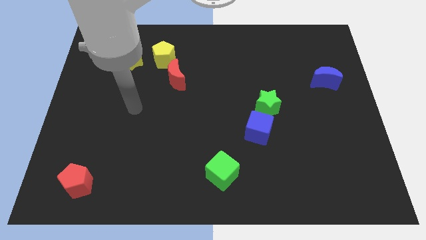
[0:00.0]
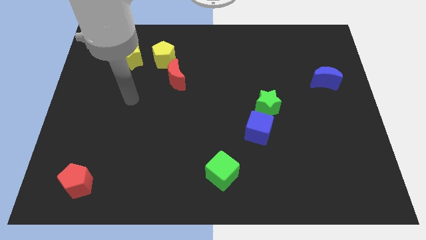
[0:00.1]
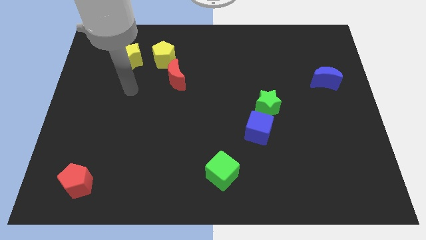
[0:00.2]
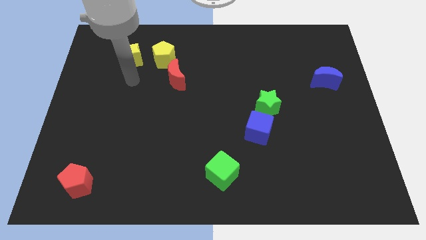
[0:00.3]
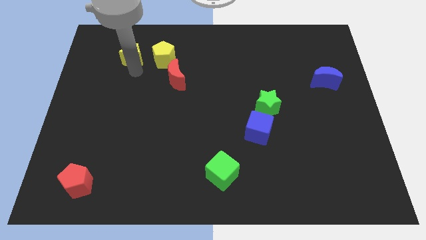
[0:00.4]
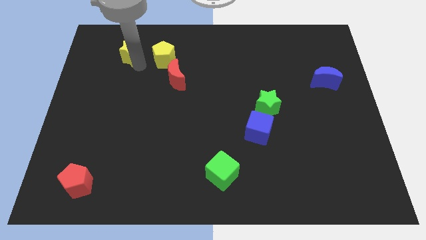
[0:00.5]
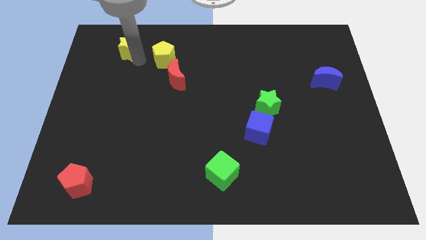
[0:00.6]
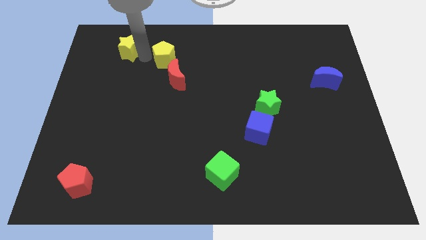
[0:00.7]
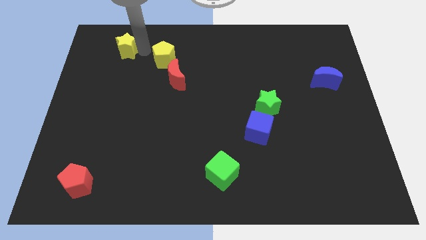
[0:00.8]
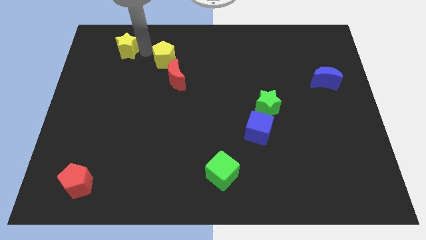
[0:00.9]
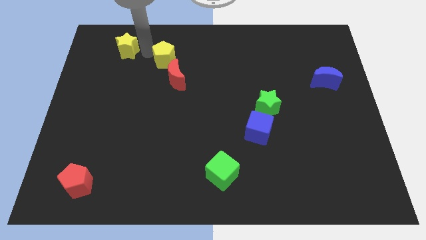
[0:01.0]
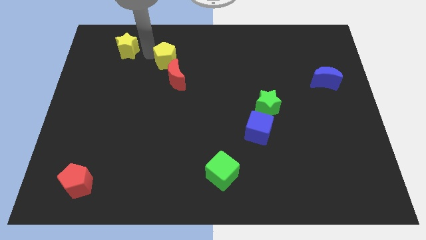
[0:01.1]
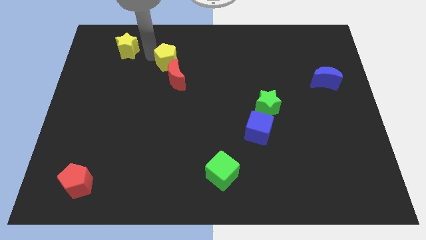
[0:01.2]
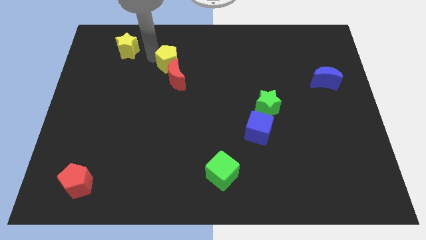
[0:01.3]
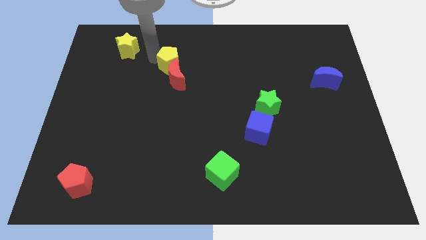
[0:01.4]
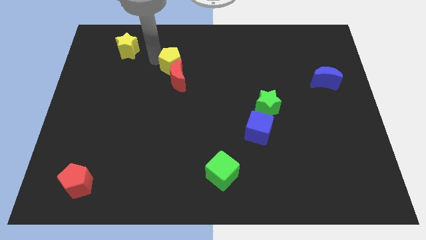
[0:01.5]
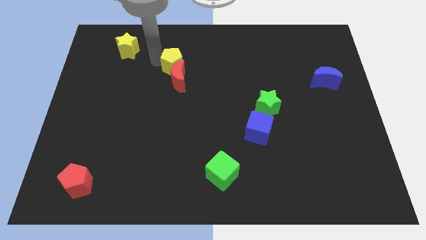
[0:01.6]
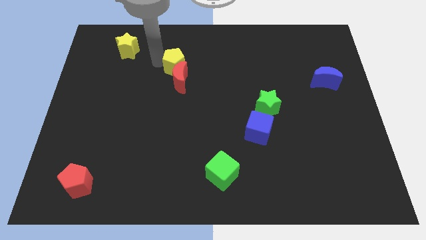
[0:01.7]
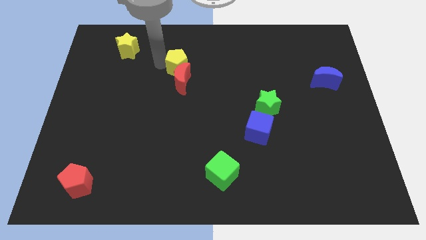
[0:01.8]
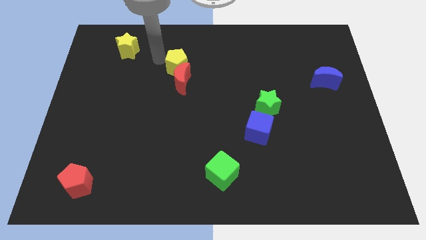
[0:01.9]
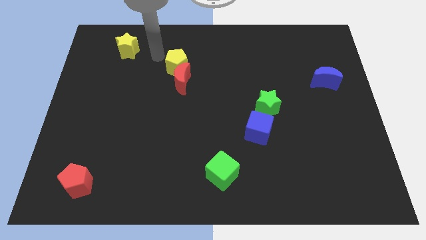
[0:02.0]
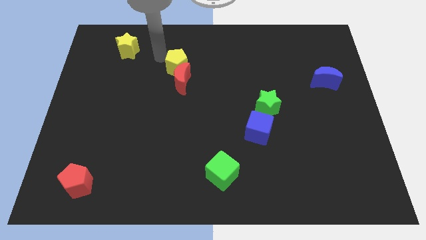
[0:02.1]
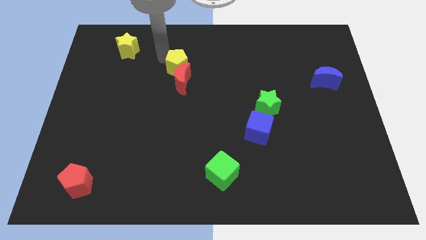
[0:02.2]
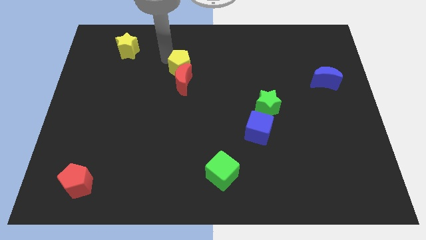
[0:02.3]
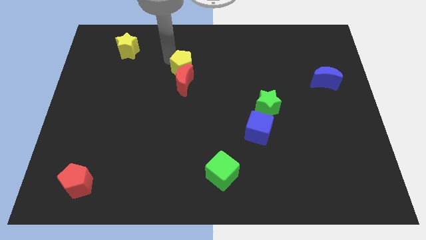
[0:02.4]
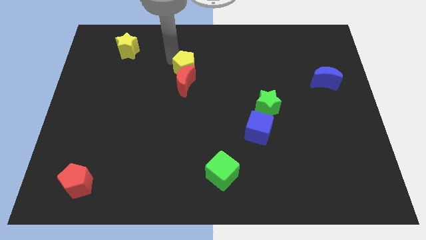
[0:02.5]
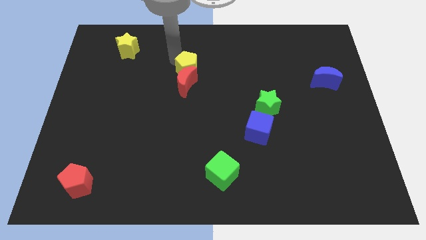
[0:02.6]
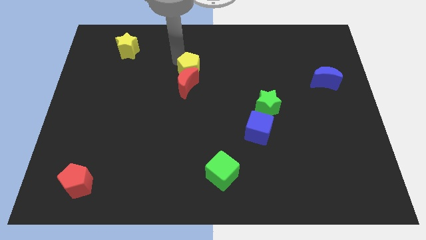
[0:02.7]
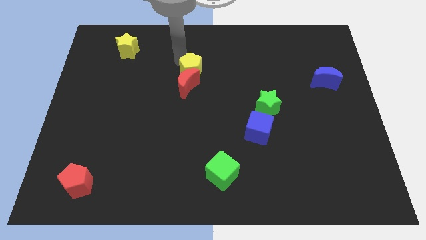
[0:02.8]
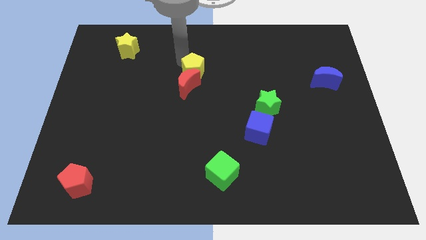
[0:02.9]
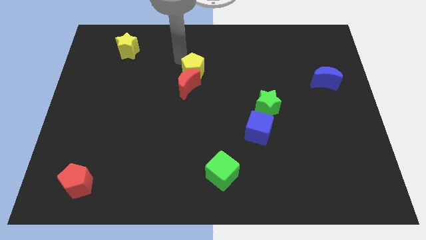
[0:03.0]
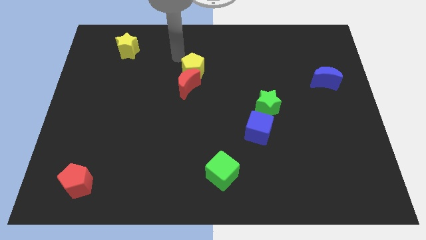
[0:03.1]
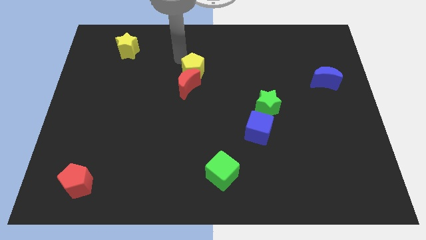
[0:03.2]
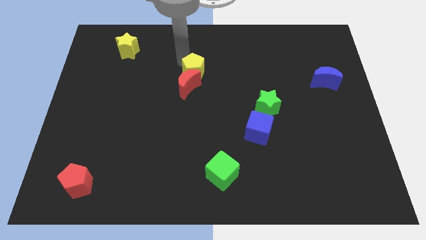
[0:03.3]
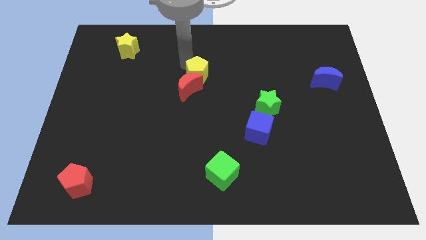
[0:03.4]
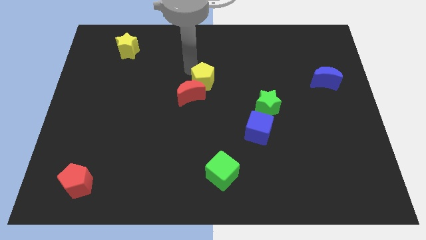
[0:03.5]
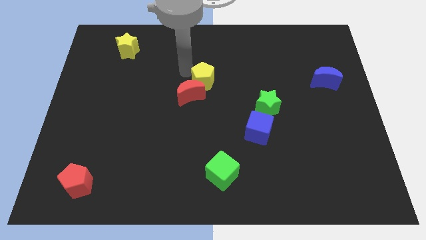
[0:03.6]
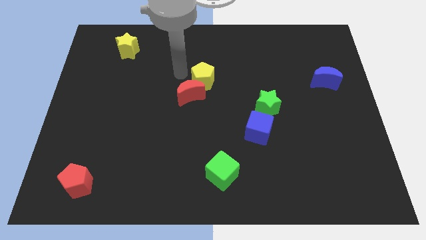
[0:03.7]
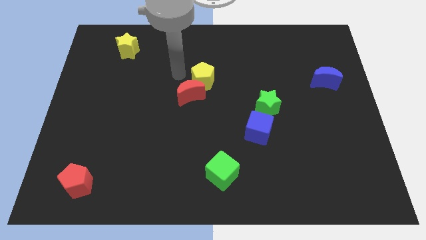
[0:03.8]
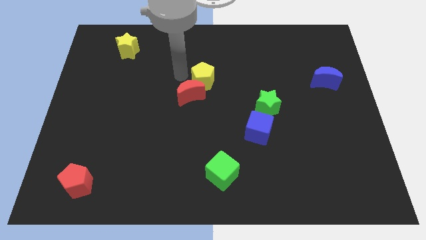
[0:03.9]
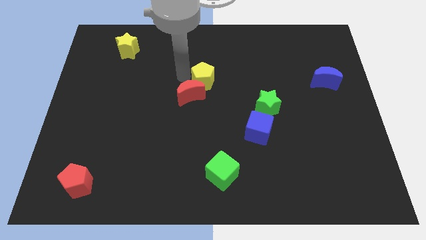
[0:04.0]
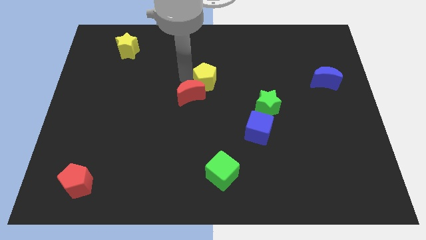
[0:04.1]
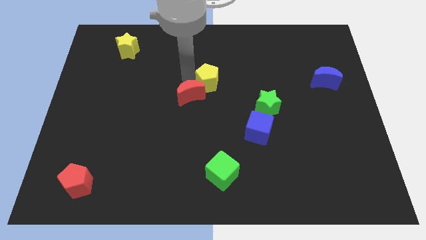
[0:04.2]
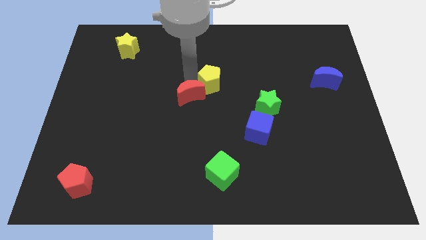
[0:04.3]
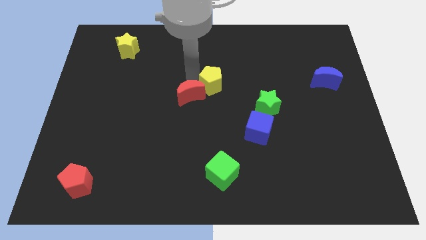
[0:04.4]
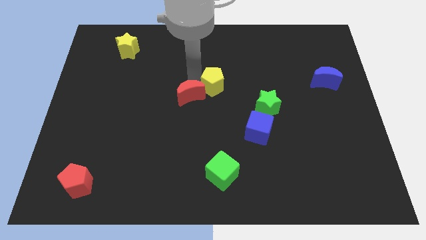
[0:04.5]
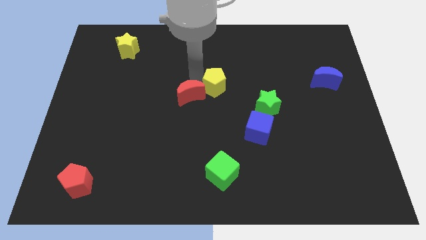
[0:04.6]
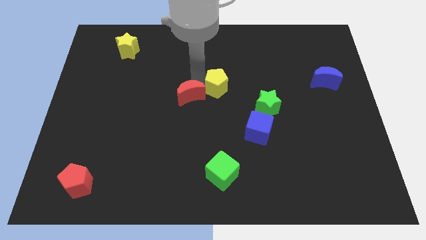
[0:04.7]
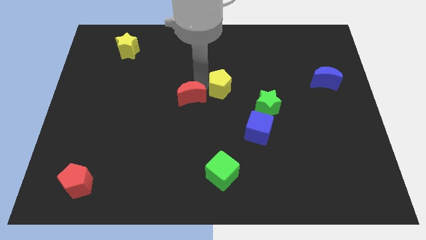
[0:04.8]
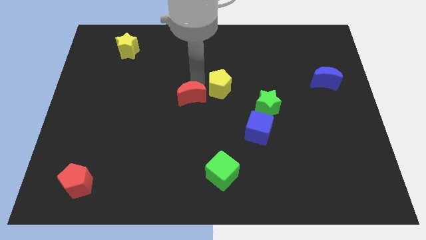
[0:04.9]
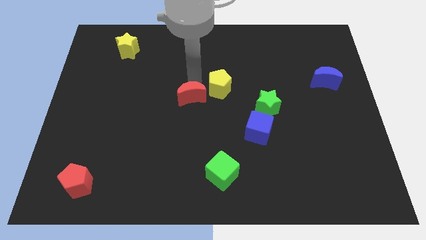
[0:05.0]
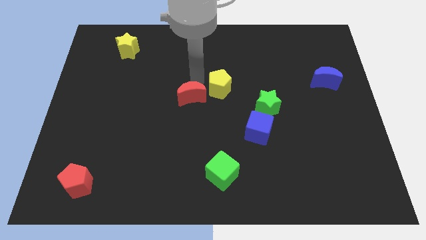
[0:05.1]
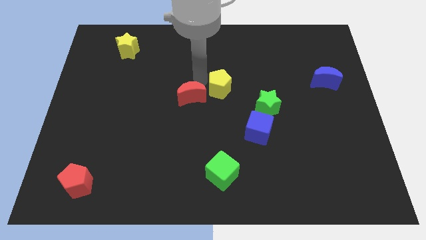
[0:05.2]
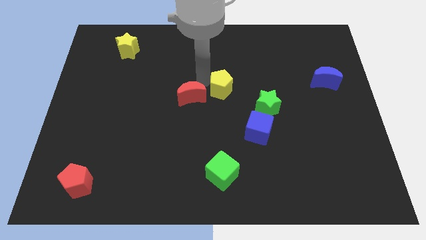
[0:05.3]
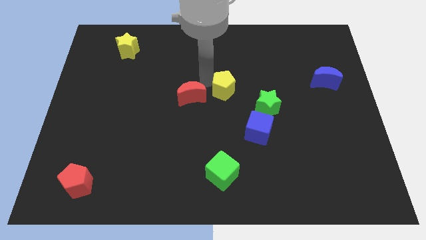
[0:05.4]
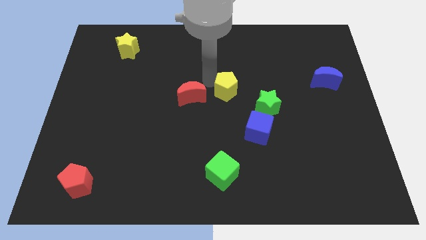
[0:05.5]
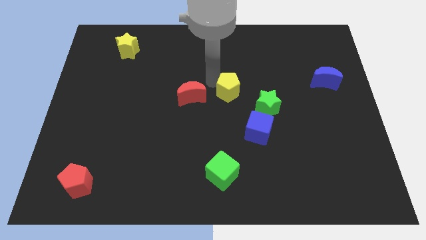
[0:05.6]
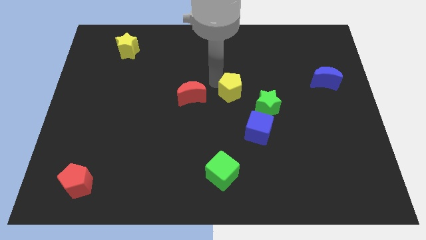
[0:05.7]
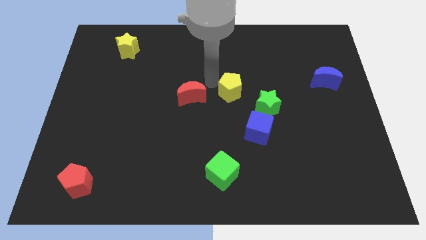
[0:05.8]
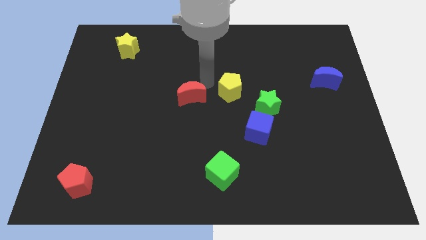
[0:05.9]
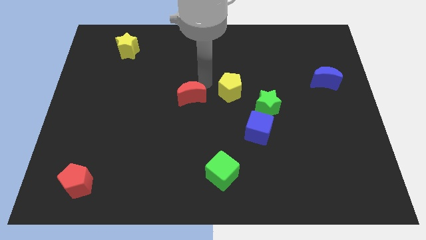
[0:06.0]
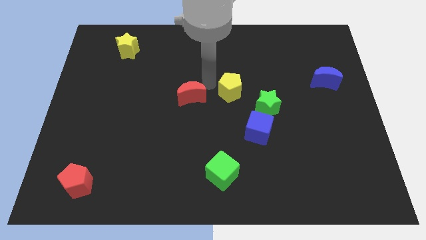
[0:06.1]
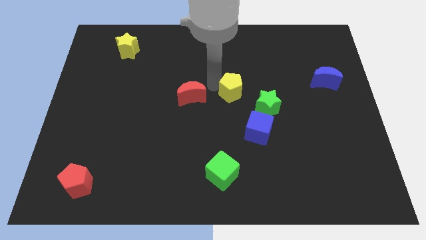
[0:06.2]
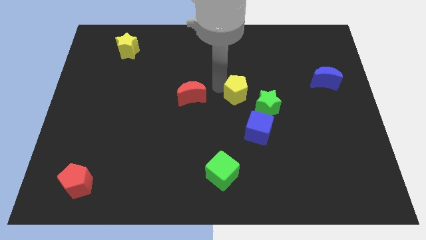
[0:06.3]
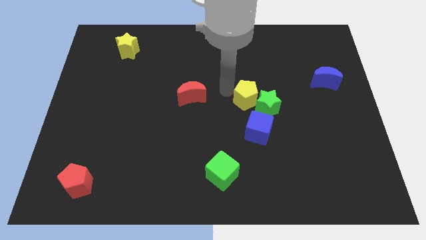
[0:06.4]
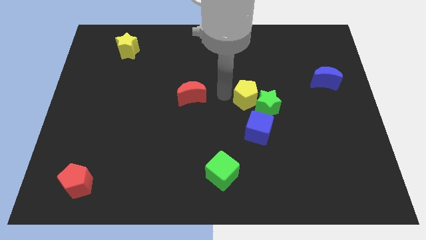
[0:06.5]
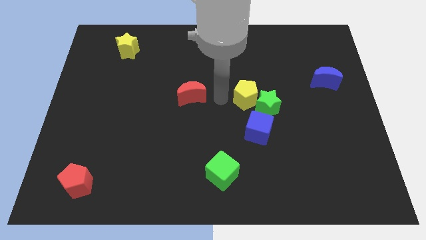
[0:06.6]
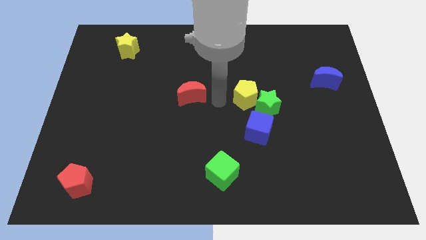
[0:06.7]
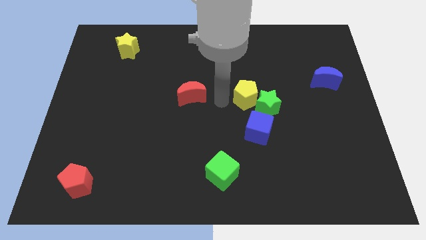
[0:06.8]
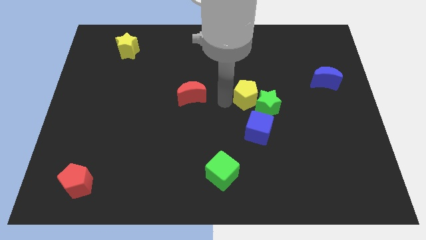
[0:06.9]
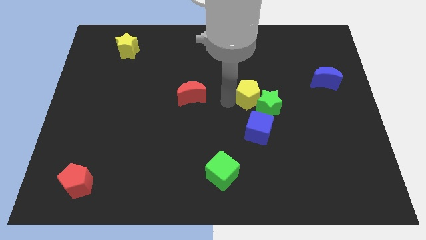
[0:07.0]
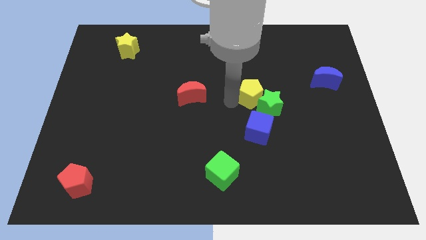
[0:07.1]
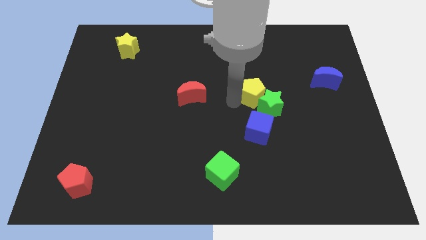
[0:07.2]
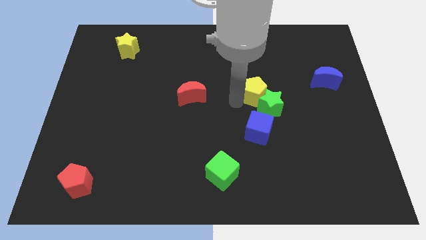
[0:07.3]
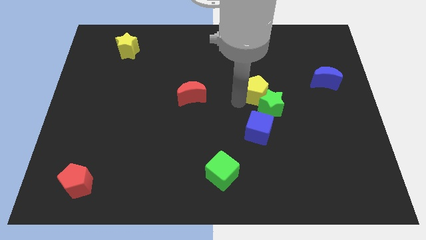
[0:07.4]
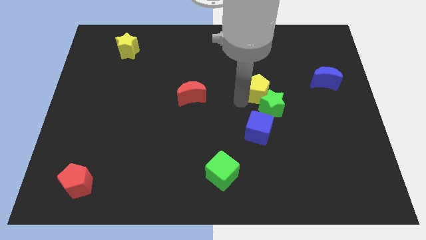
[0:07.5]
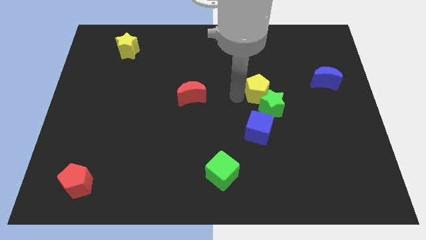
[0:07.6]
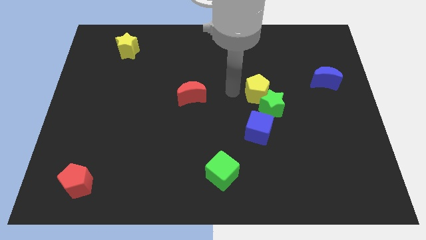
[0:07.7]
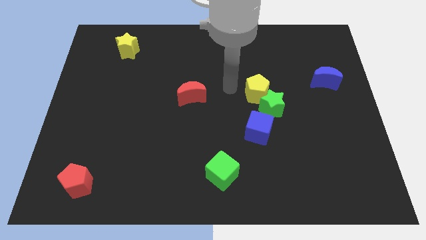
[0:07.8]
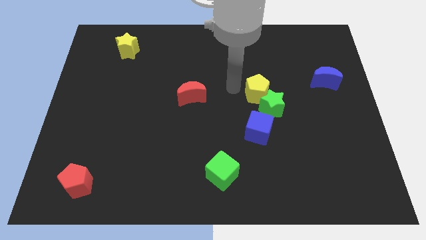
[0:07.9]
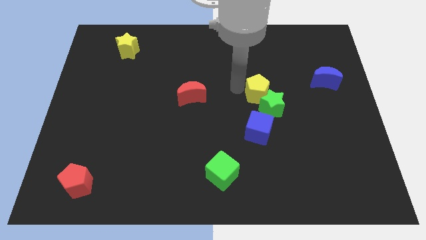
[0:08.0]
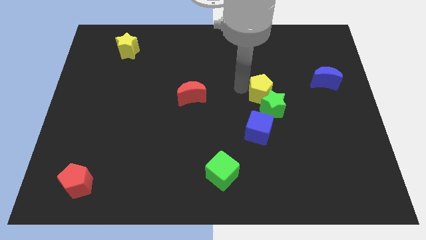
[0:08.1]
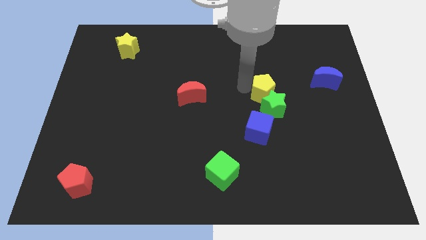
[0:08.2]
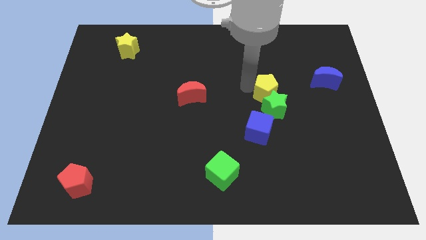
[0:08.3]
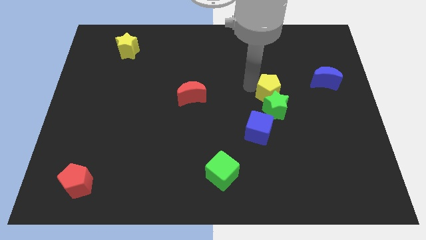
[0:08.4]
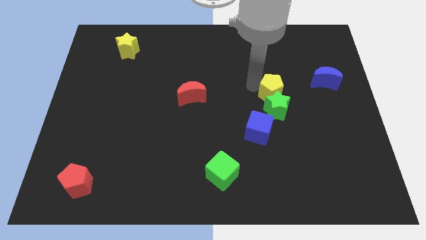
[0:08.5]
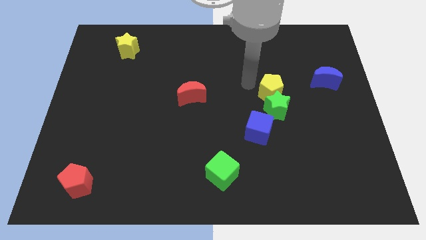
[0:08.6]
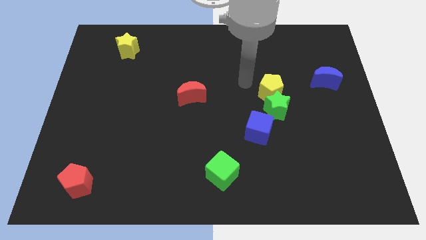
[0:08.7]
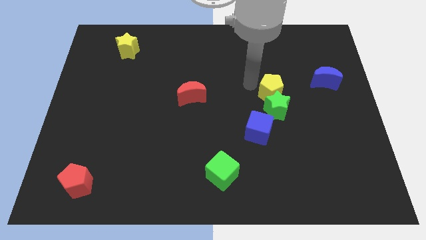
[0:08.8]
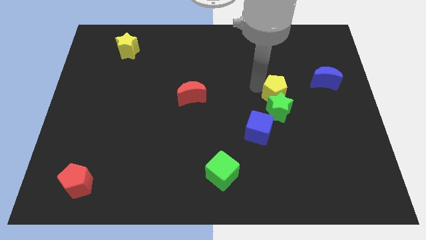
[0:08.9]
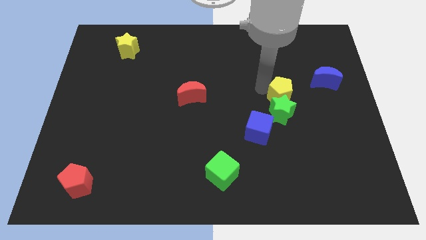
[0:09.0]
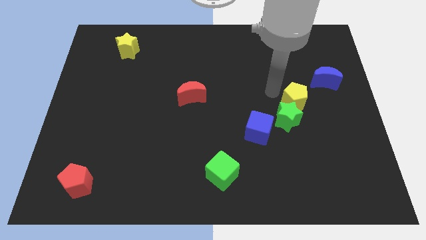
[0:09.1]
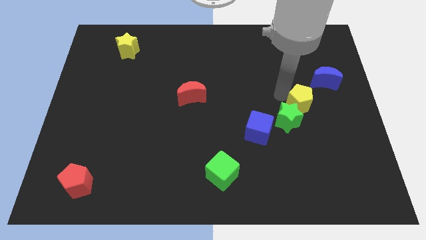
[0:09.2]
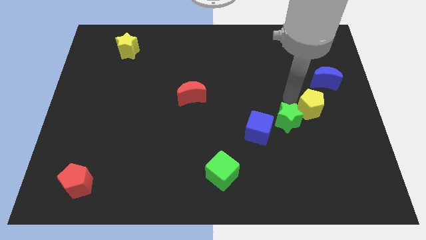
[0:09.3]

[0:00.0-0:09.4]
slide the yellow pentagon just right of the green star
